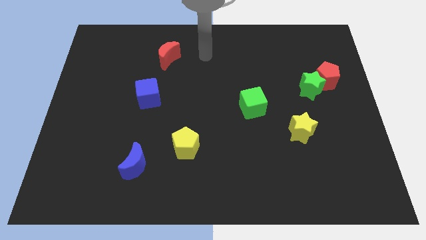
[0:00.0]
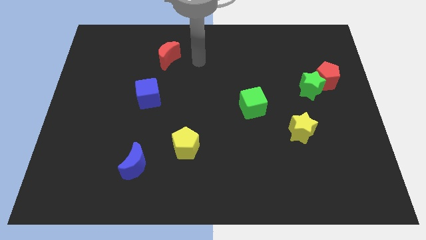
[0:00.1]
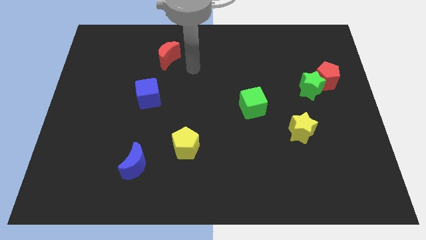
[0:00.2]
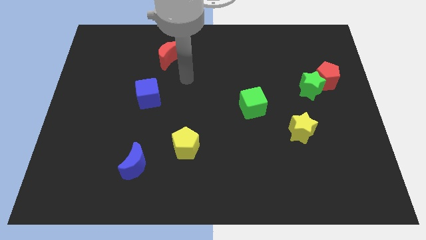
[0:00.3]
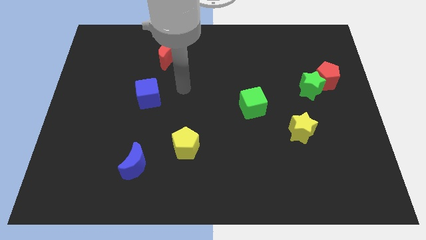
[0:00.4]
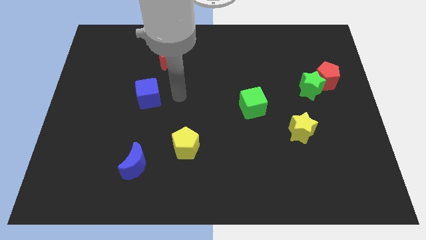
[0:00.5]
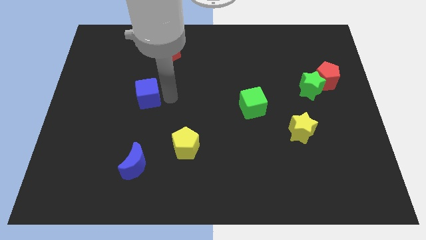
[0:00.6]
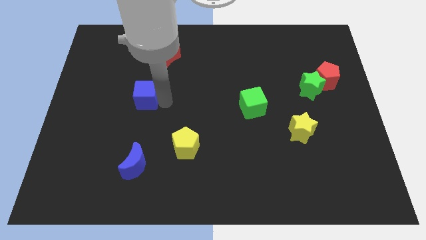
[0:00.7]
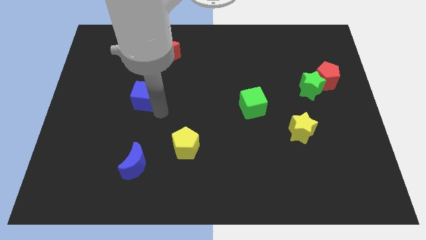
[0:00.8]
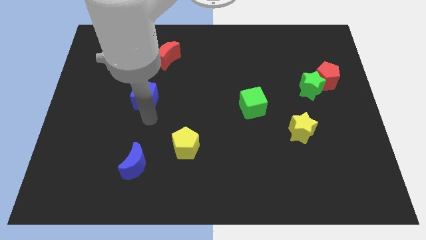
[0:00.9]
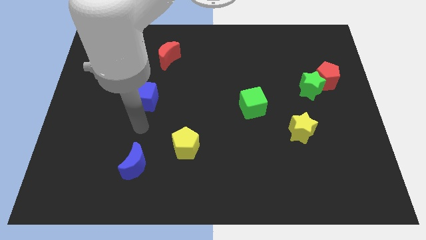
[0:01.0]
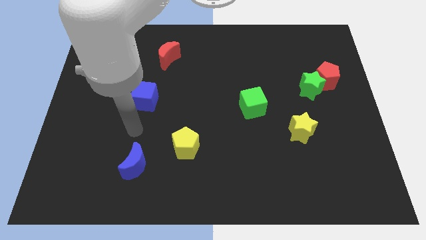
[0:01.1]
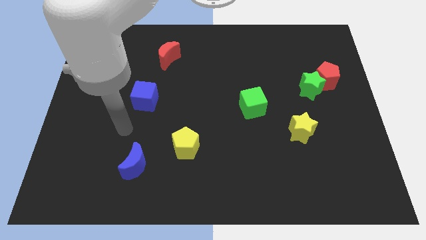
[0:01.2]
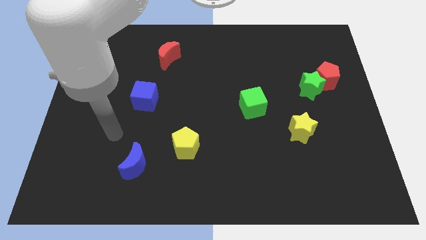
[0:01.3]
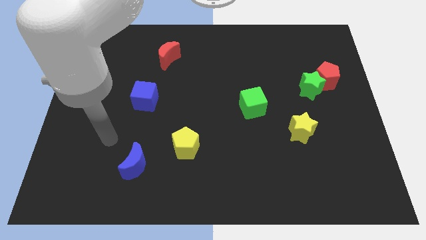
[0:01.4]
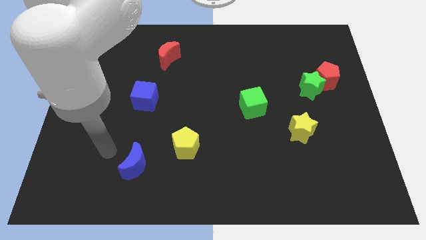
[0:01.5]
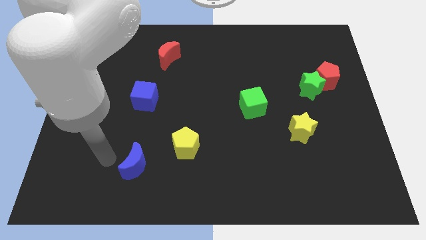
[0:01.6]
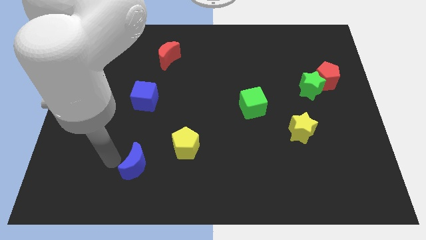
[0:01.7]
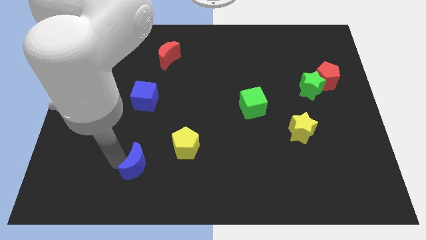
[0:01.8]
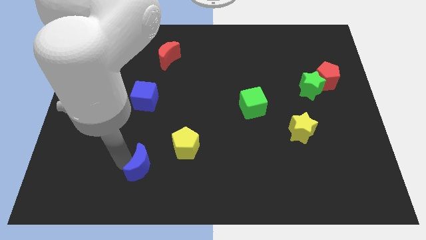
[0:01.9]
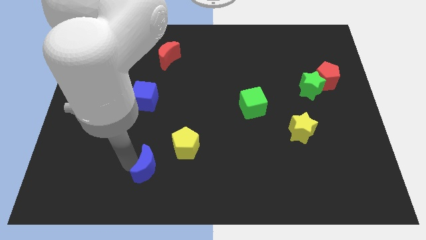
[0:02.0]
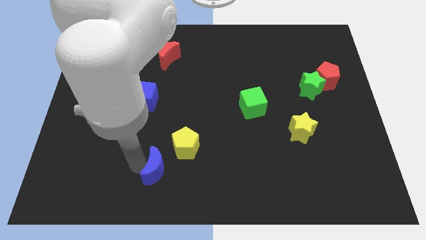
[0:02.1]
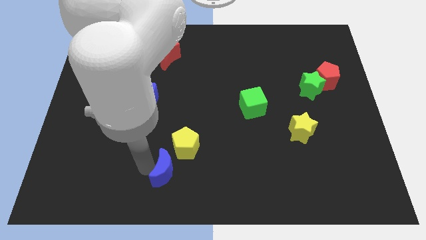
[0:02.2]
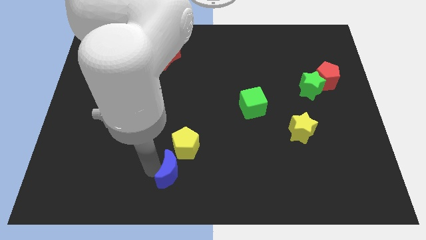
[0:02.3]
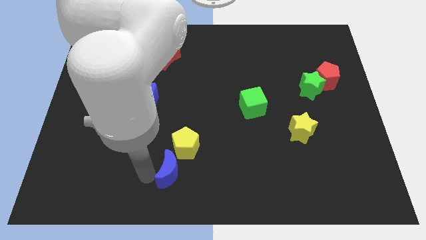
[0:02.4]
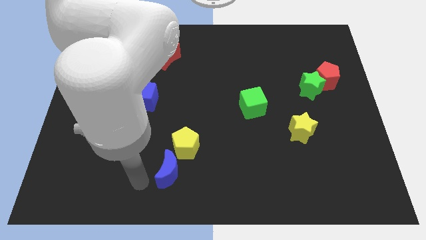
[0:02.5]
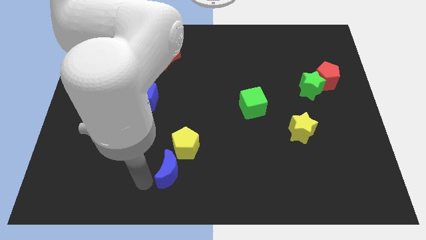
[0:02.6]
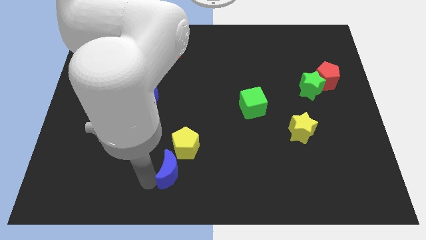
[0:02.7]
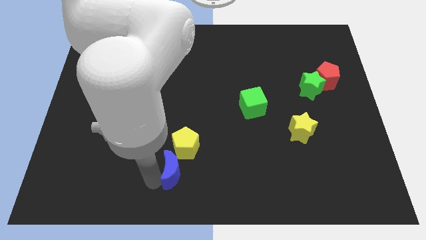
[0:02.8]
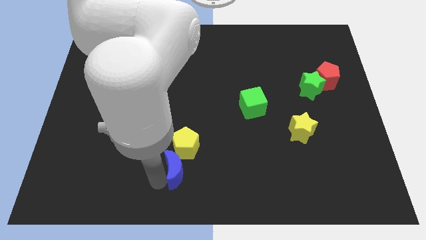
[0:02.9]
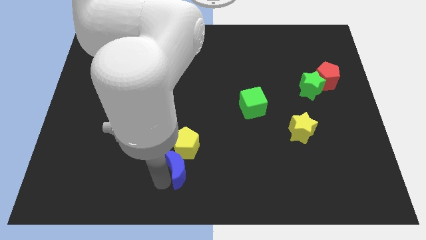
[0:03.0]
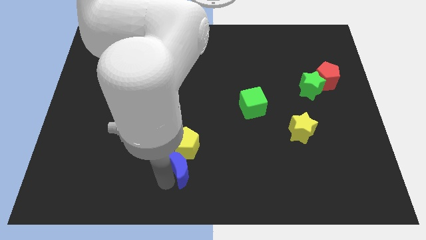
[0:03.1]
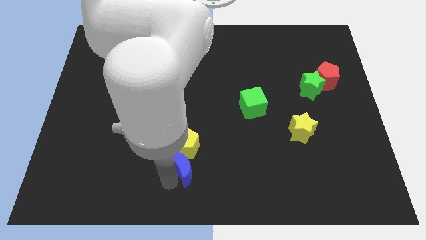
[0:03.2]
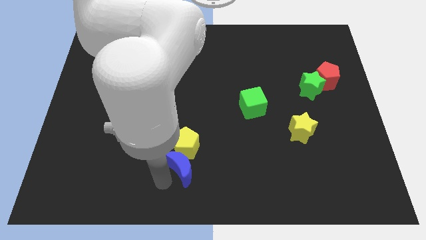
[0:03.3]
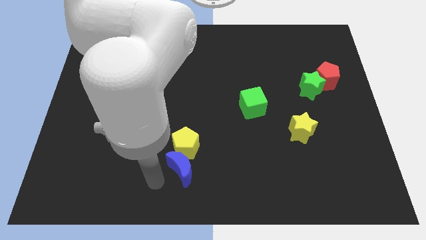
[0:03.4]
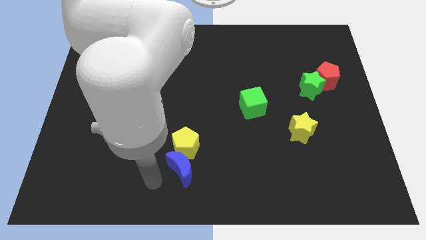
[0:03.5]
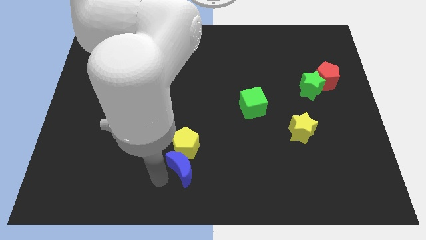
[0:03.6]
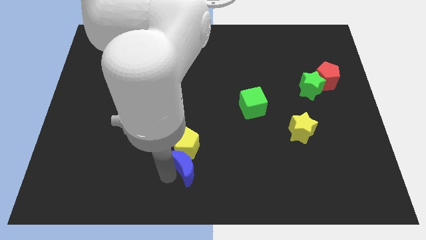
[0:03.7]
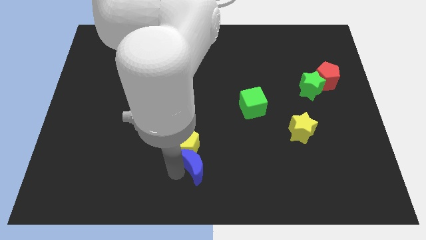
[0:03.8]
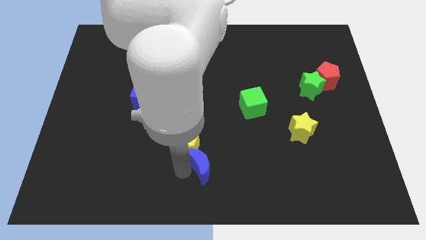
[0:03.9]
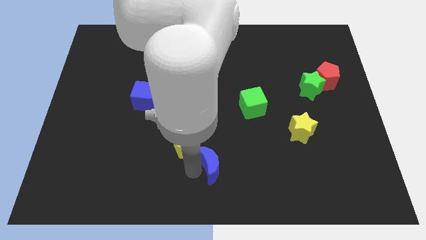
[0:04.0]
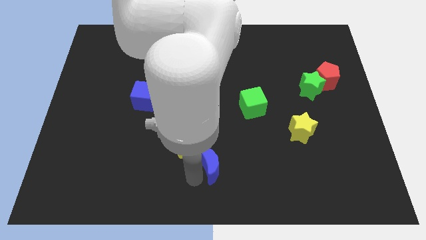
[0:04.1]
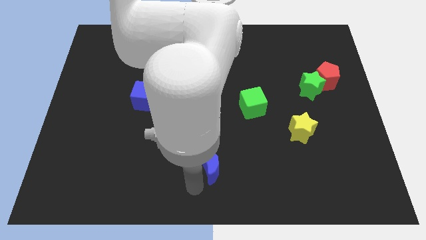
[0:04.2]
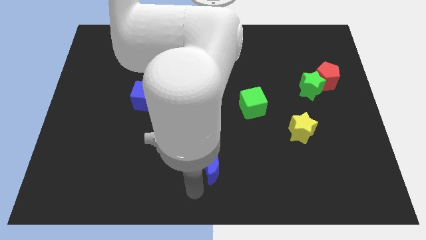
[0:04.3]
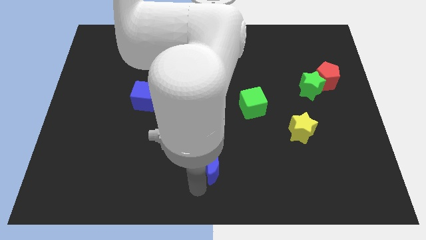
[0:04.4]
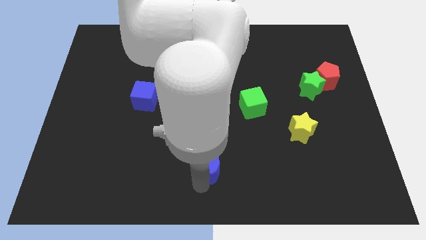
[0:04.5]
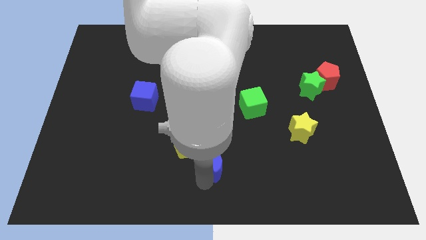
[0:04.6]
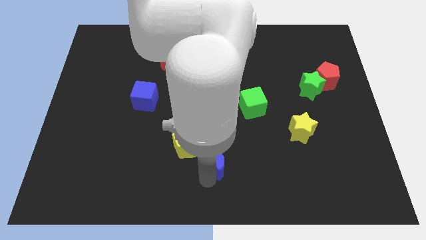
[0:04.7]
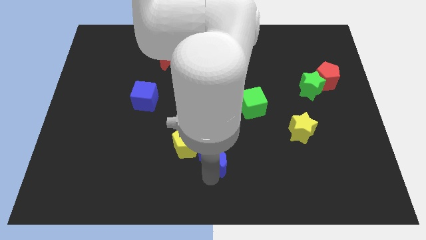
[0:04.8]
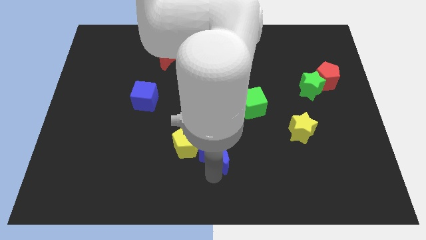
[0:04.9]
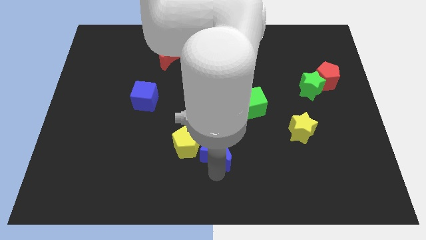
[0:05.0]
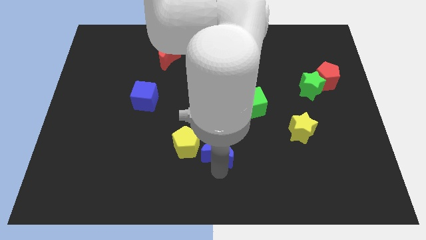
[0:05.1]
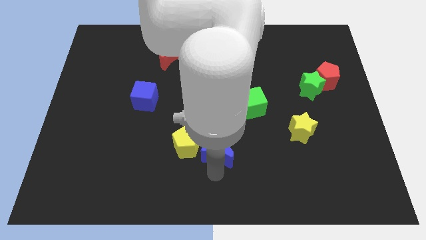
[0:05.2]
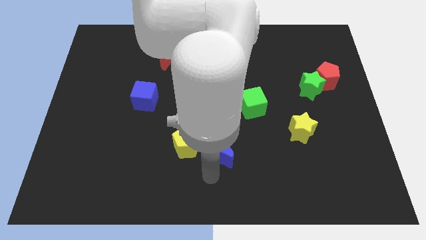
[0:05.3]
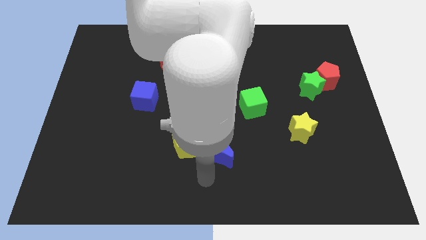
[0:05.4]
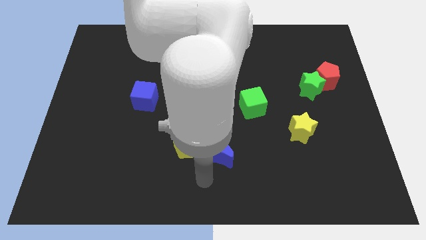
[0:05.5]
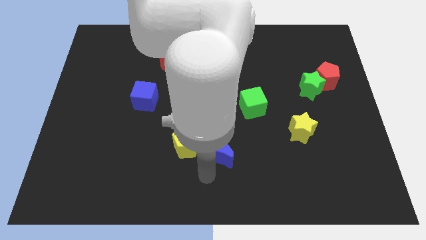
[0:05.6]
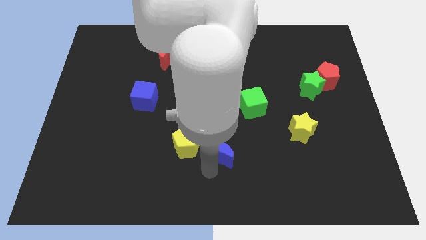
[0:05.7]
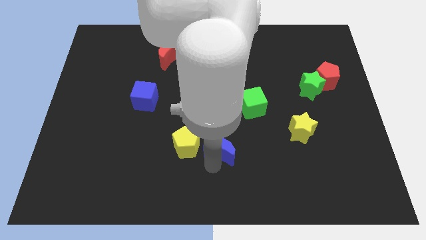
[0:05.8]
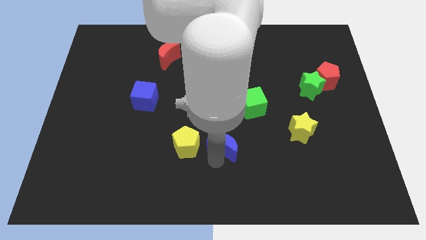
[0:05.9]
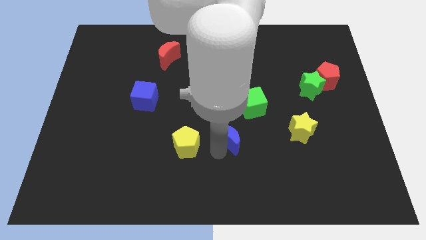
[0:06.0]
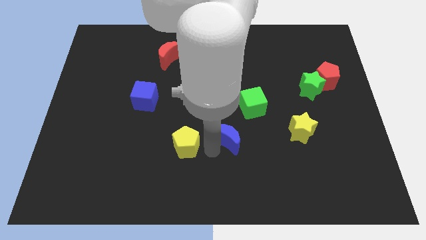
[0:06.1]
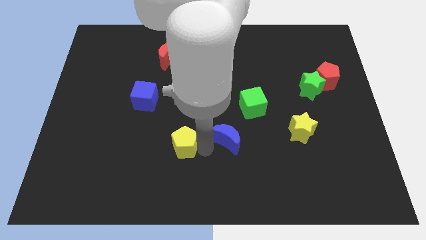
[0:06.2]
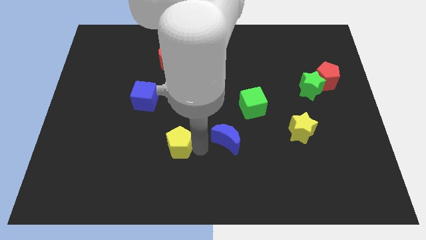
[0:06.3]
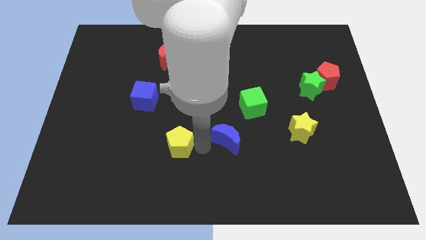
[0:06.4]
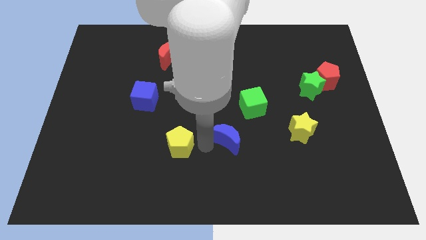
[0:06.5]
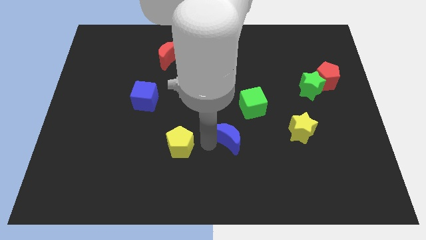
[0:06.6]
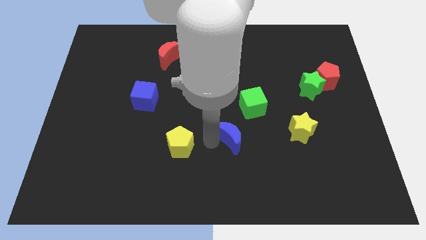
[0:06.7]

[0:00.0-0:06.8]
move the blue moon to the left side of the yellow star
